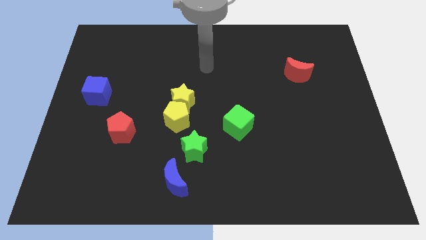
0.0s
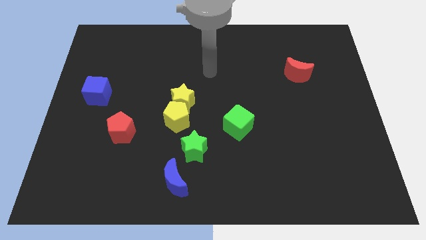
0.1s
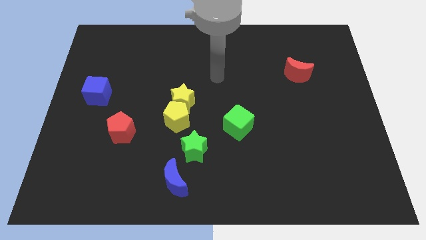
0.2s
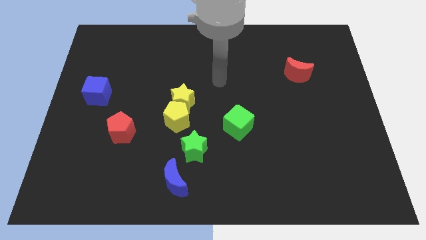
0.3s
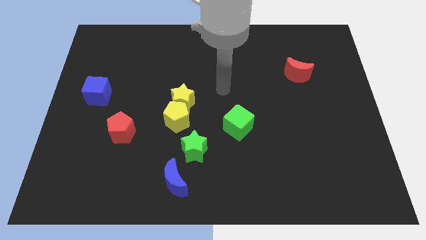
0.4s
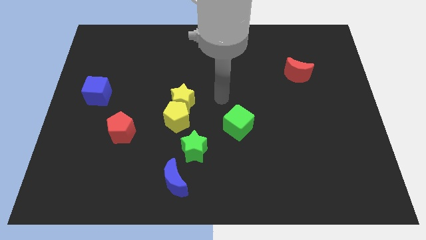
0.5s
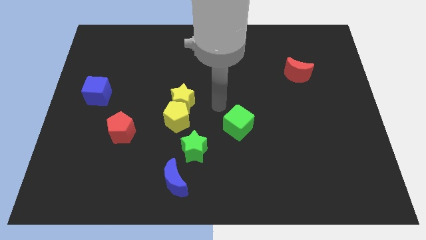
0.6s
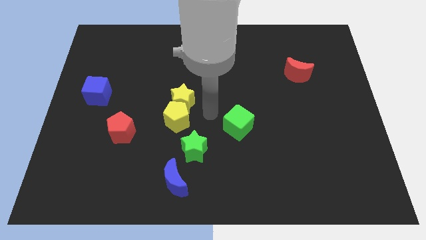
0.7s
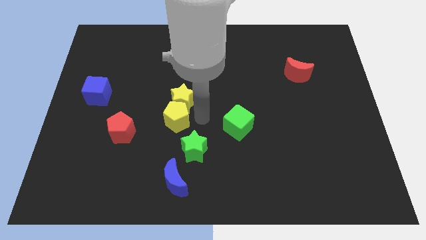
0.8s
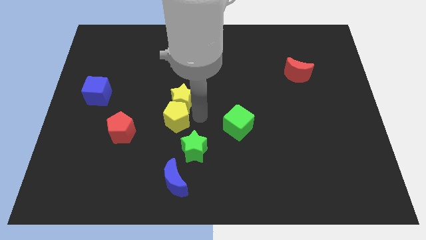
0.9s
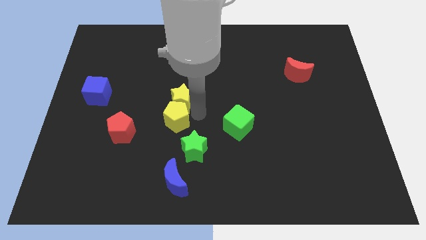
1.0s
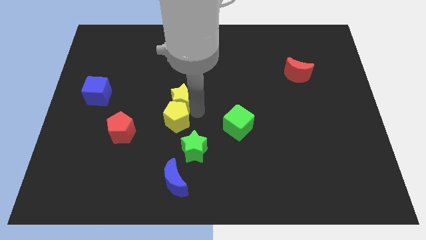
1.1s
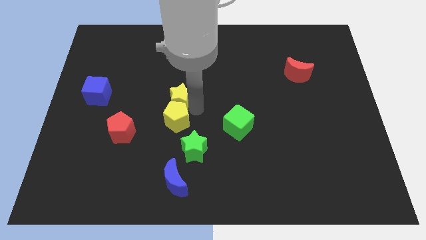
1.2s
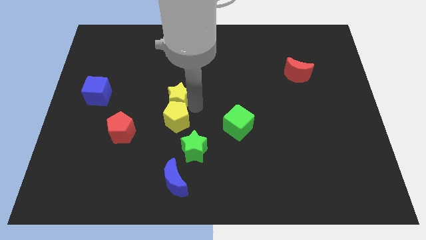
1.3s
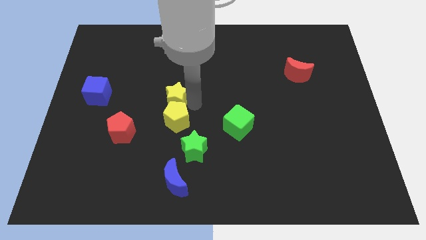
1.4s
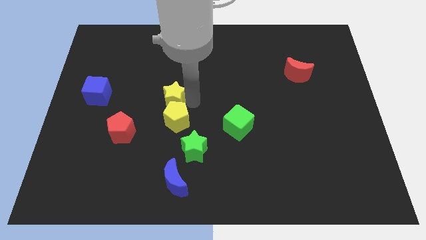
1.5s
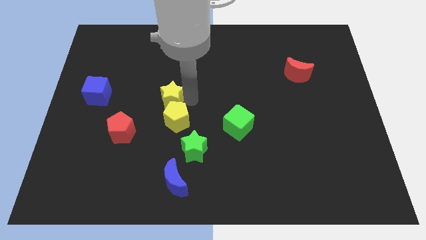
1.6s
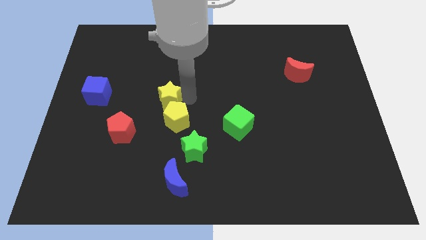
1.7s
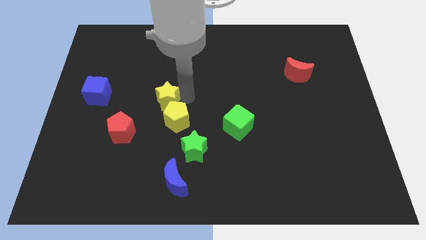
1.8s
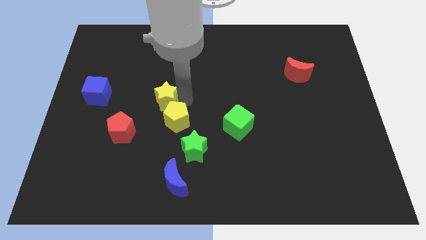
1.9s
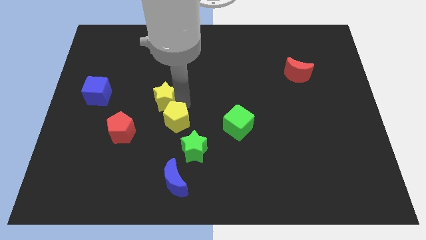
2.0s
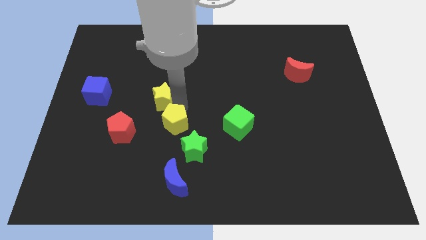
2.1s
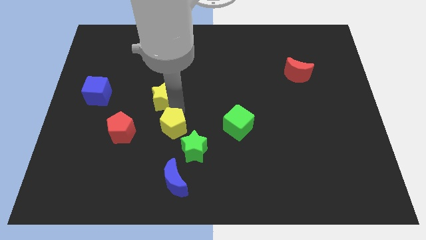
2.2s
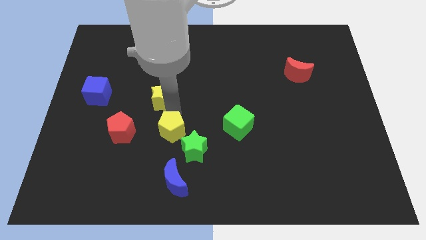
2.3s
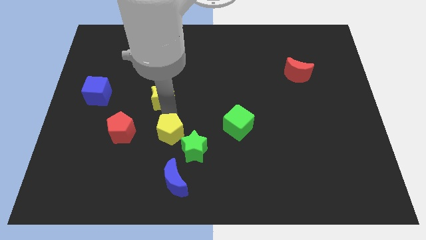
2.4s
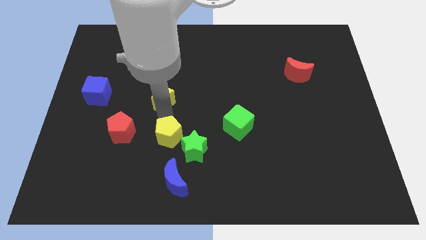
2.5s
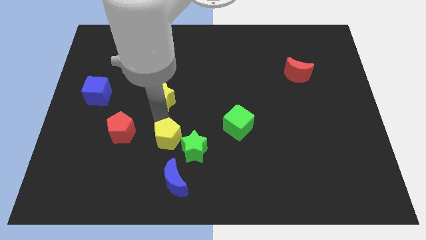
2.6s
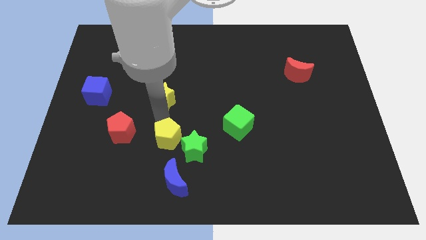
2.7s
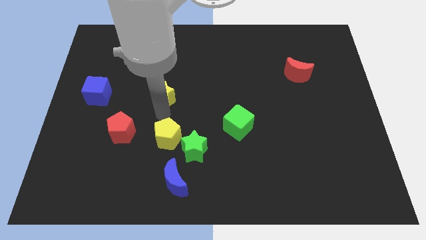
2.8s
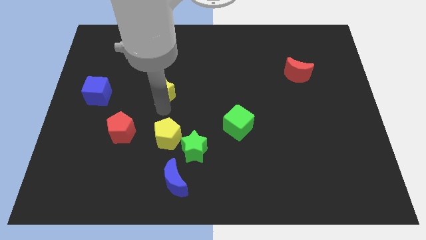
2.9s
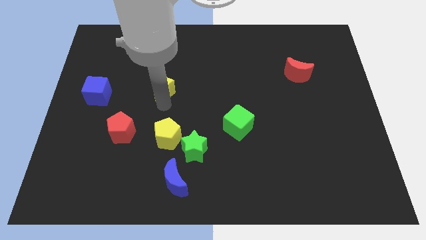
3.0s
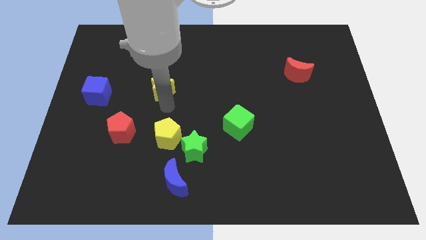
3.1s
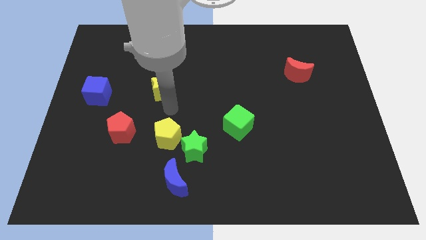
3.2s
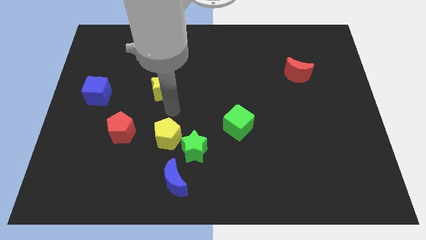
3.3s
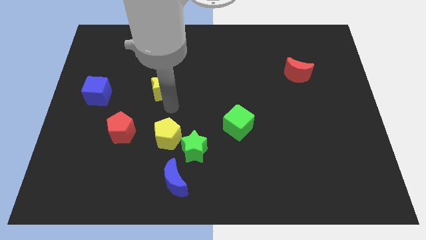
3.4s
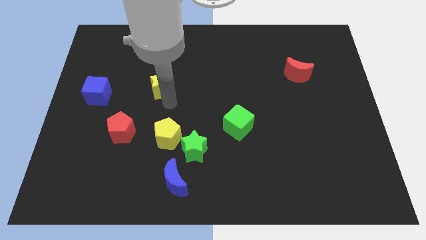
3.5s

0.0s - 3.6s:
slightly slide the yellow star up and left

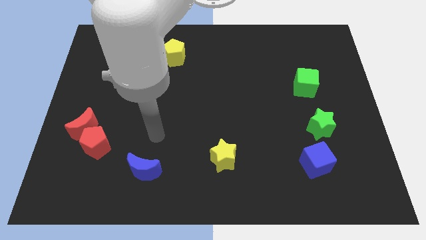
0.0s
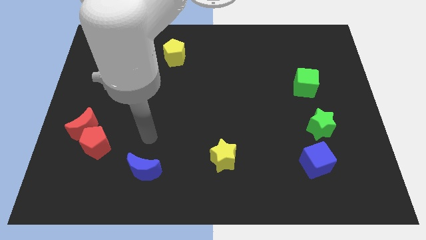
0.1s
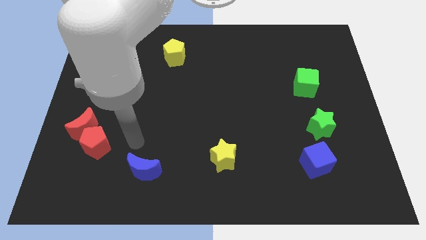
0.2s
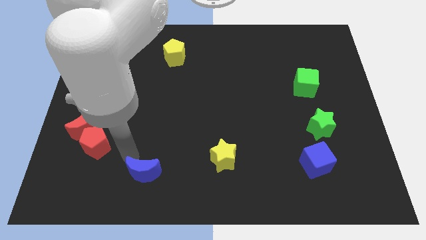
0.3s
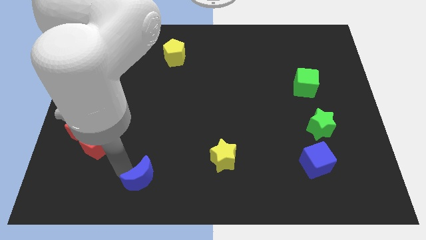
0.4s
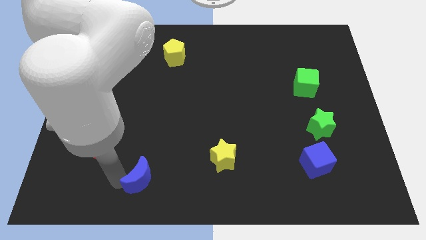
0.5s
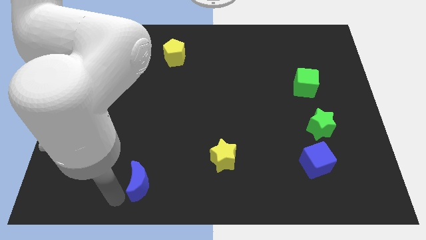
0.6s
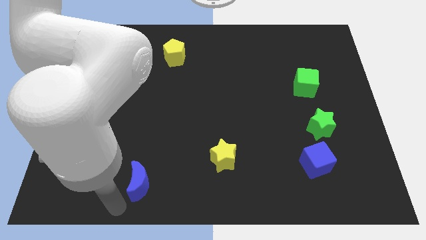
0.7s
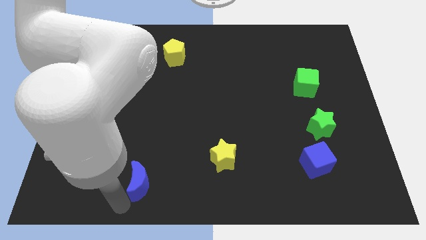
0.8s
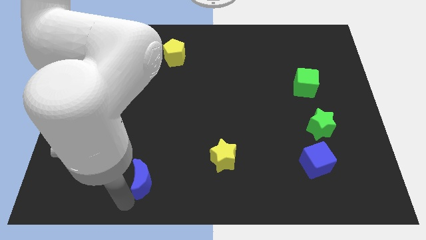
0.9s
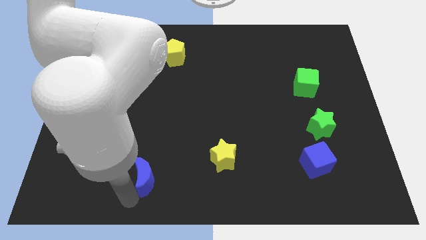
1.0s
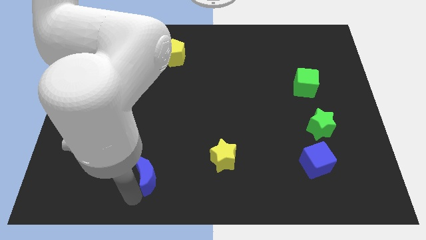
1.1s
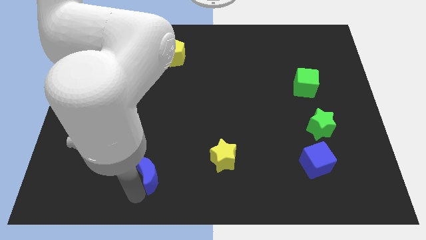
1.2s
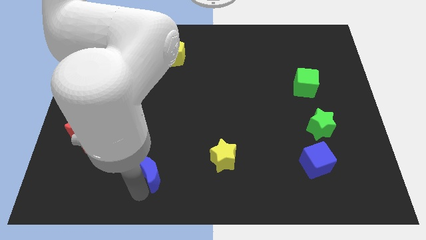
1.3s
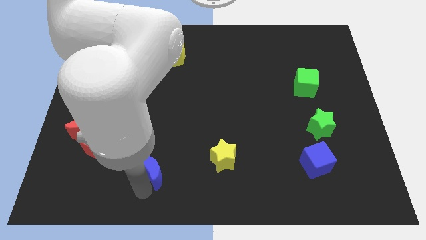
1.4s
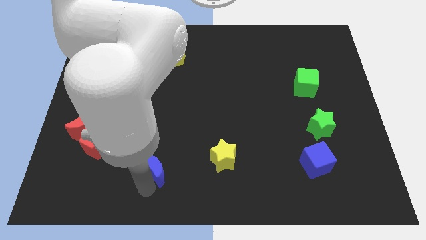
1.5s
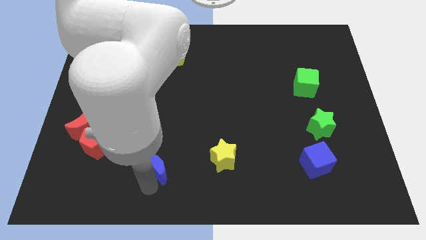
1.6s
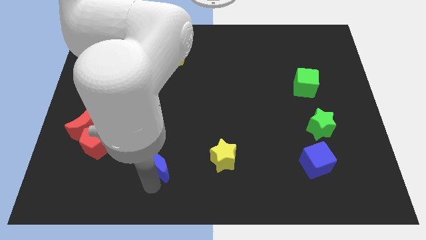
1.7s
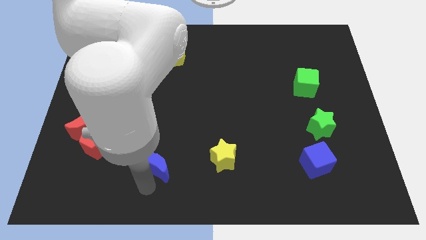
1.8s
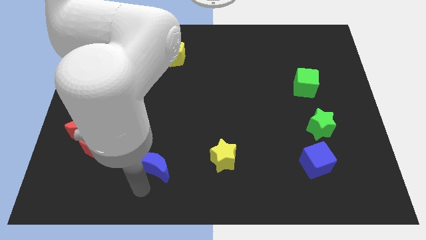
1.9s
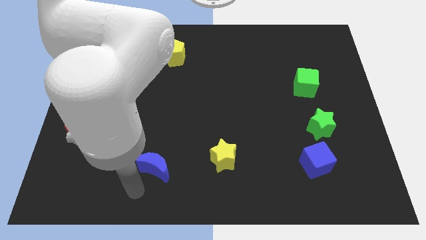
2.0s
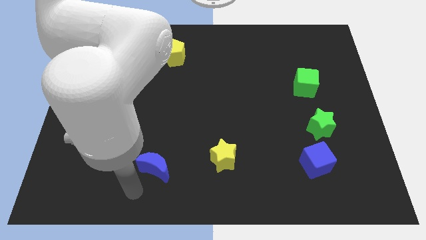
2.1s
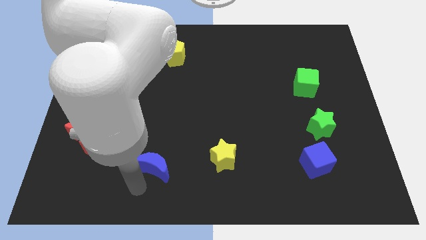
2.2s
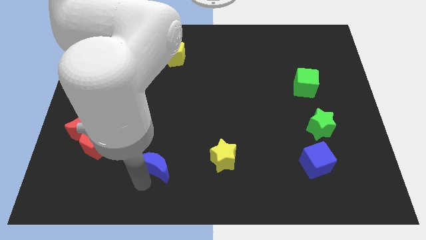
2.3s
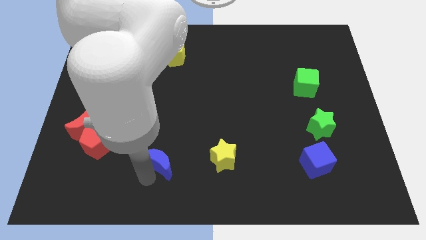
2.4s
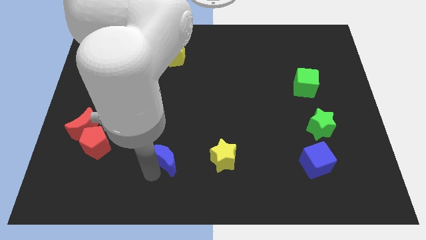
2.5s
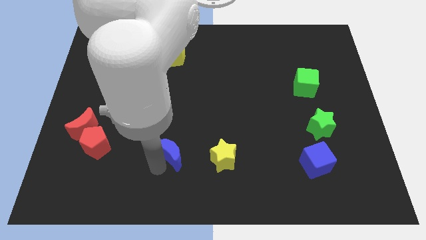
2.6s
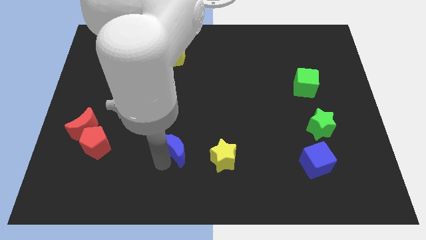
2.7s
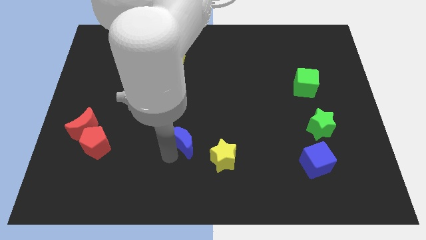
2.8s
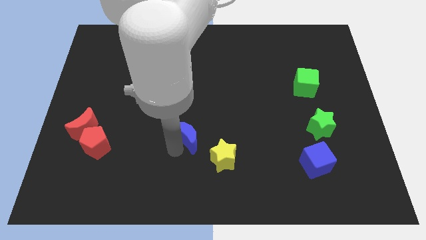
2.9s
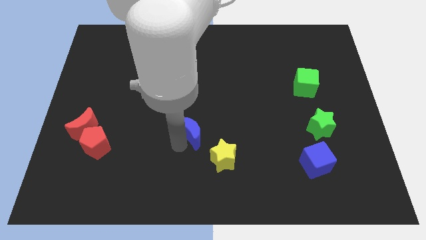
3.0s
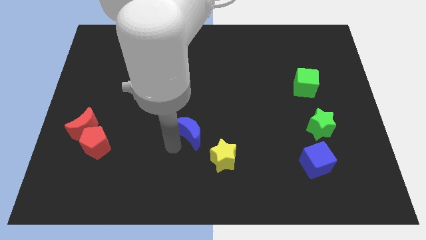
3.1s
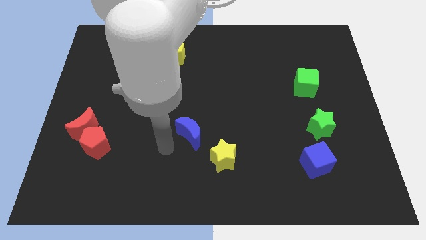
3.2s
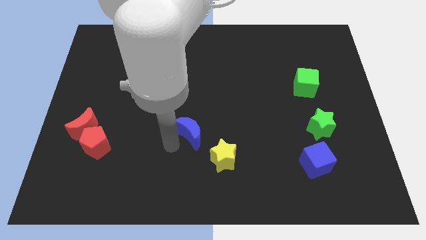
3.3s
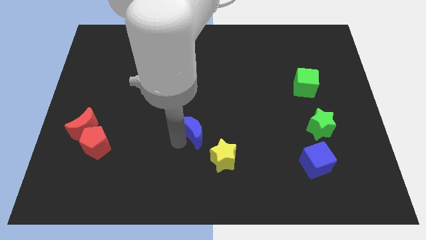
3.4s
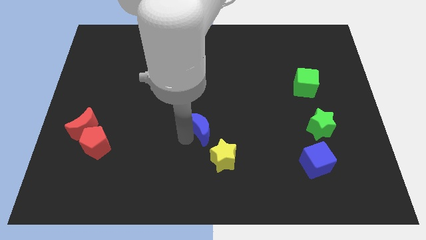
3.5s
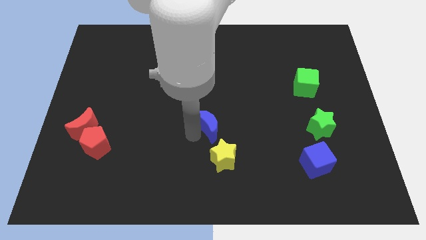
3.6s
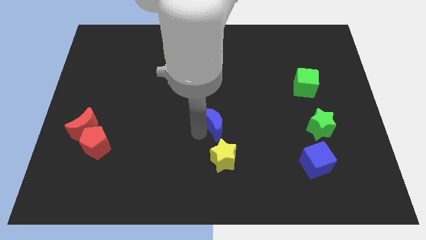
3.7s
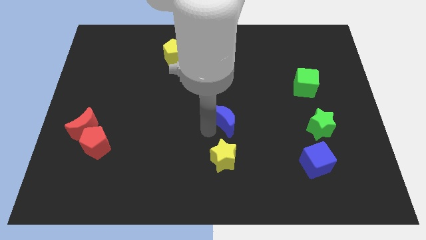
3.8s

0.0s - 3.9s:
slide the blue moon diagonally up and right

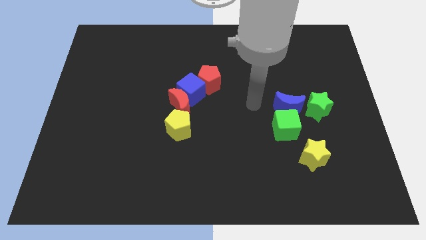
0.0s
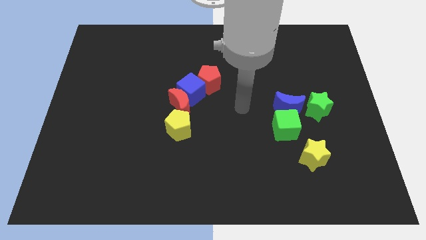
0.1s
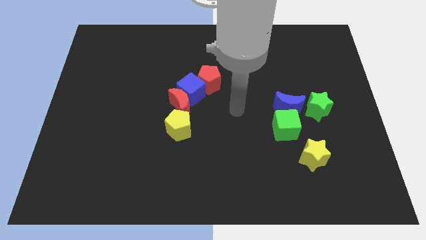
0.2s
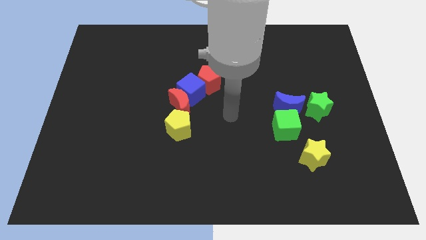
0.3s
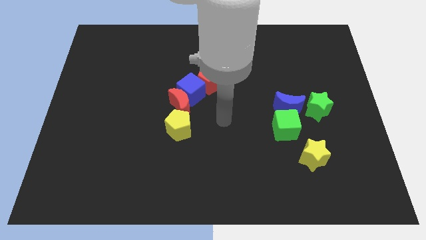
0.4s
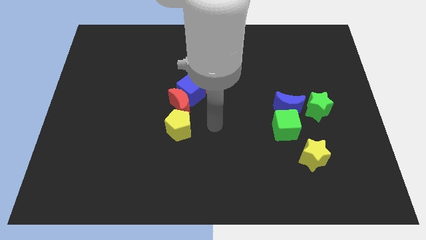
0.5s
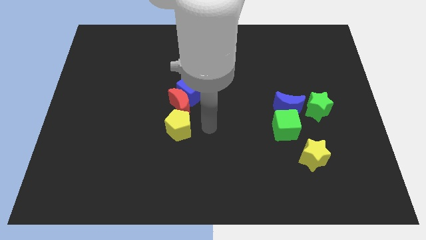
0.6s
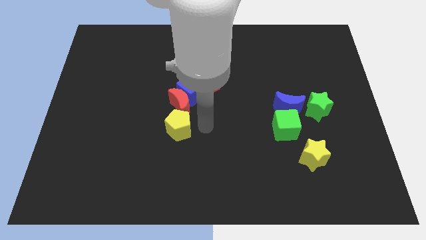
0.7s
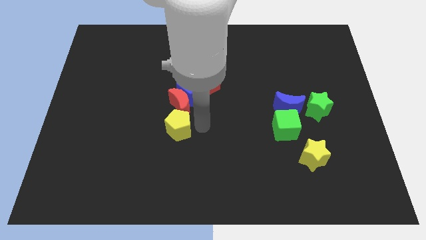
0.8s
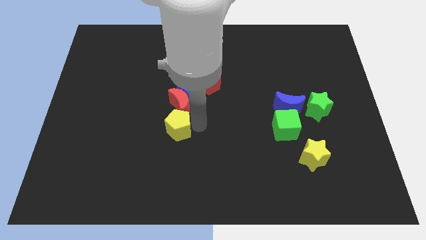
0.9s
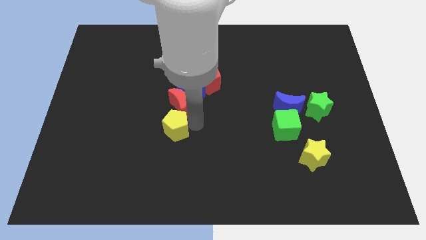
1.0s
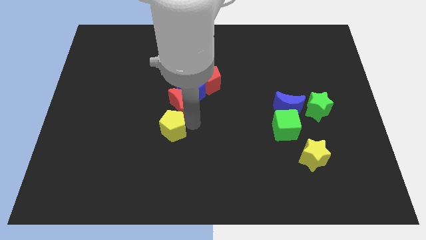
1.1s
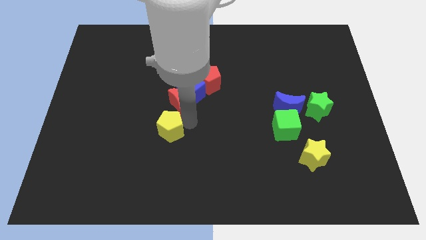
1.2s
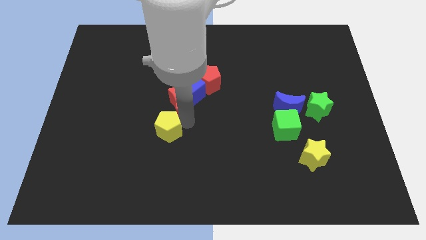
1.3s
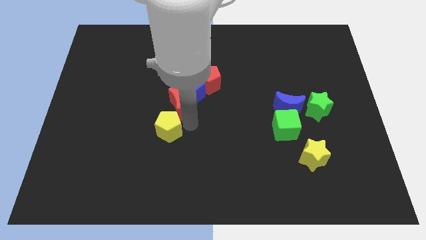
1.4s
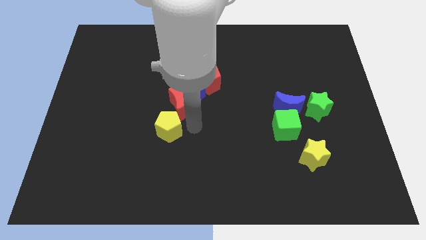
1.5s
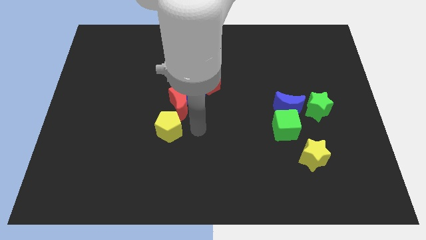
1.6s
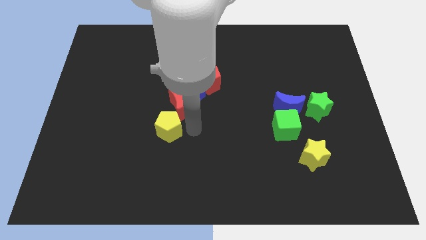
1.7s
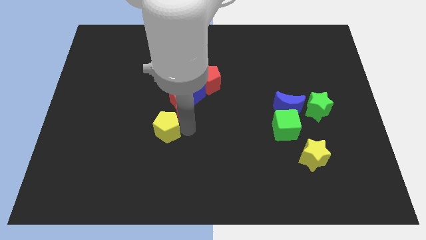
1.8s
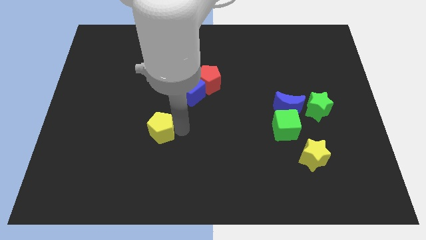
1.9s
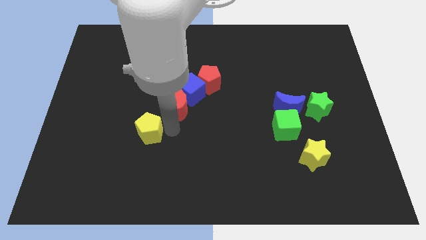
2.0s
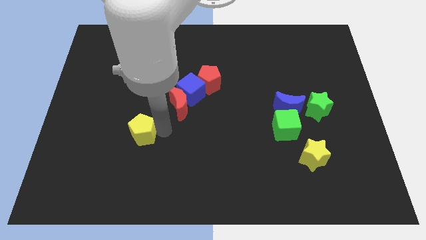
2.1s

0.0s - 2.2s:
slightly move the yellow pentagon left
